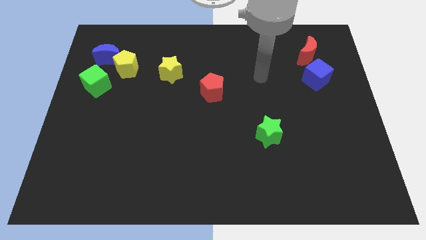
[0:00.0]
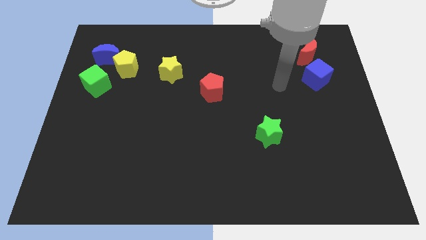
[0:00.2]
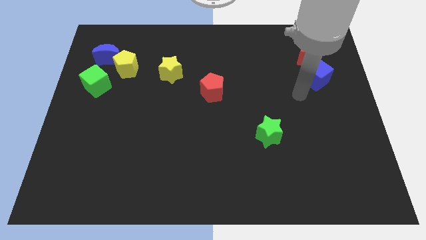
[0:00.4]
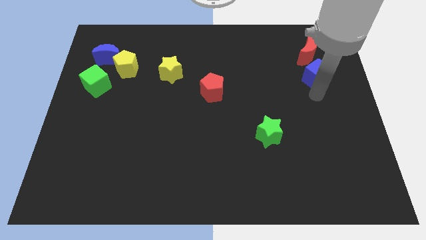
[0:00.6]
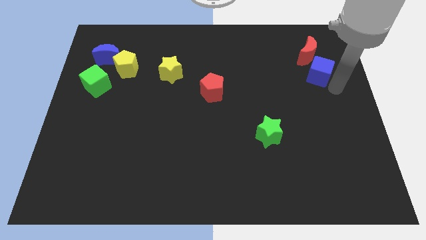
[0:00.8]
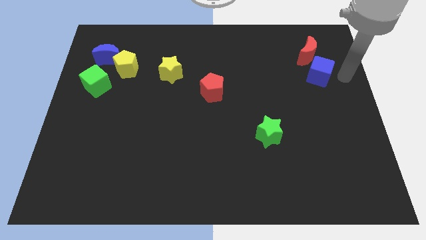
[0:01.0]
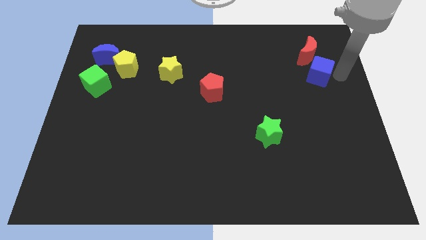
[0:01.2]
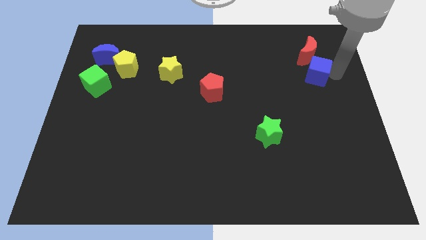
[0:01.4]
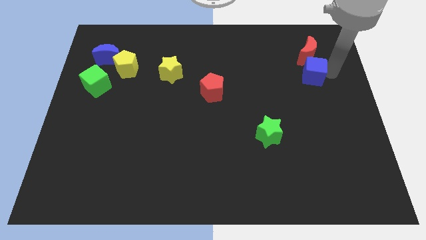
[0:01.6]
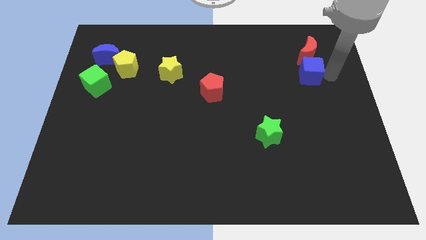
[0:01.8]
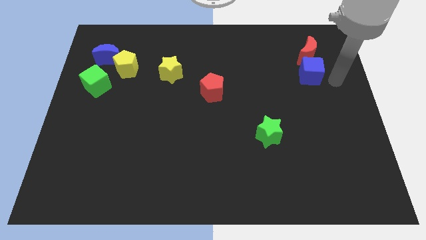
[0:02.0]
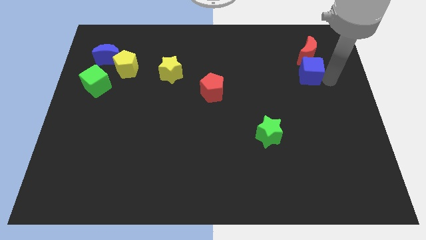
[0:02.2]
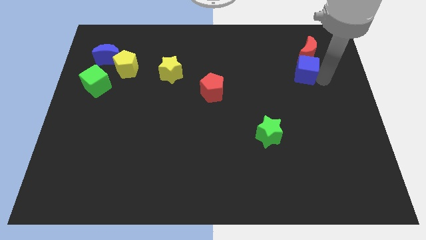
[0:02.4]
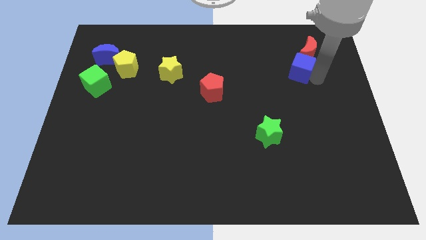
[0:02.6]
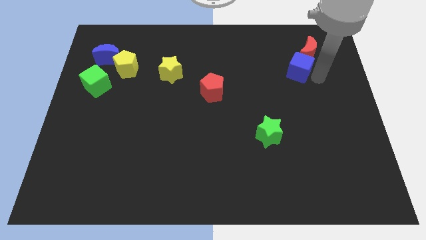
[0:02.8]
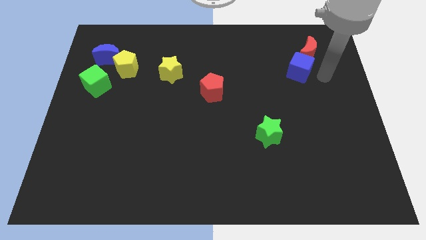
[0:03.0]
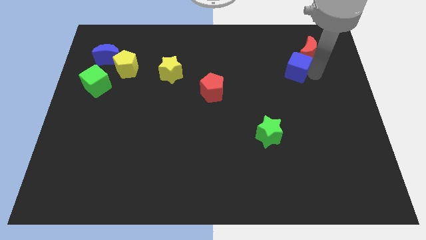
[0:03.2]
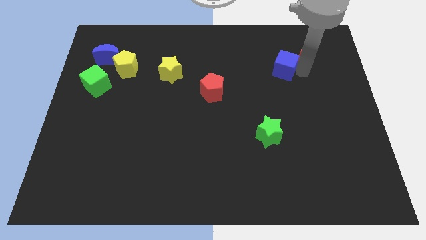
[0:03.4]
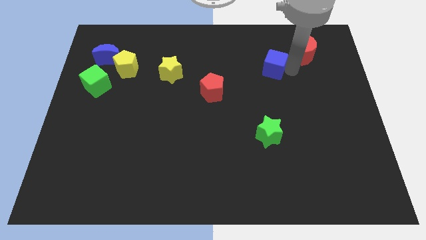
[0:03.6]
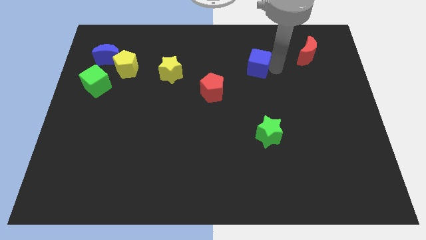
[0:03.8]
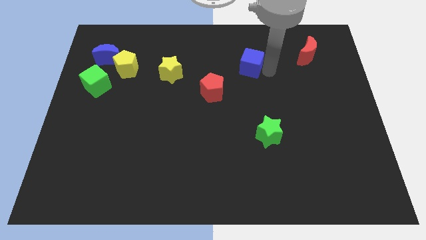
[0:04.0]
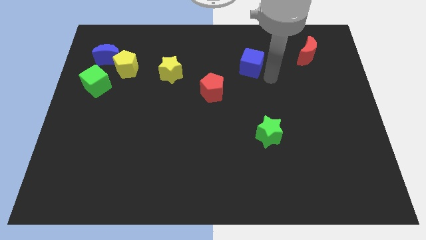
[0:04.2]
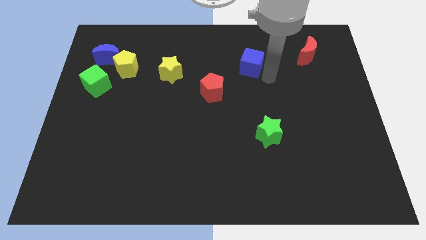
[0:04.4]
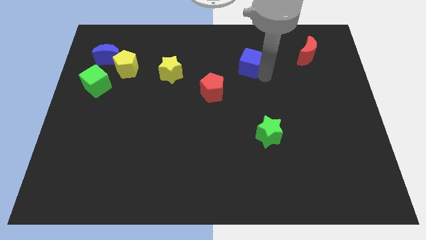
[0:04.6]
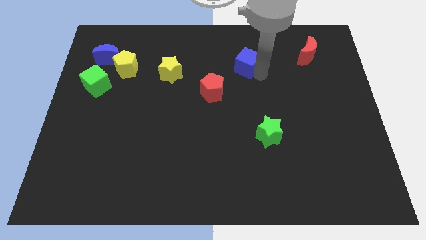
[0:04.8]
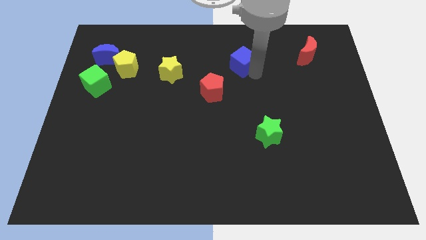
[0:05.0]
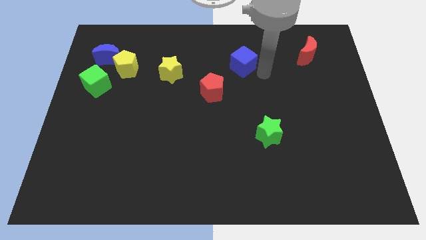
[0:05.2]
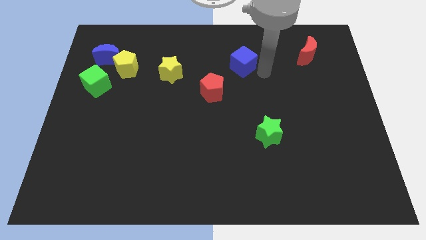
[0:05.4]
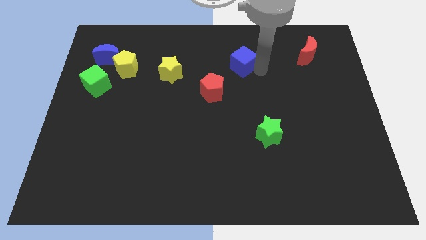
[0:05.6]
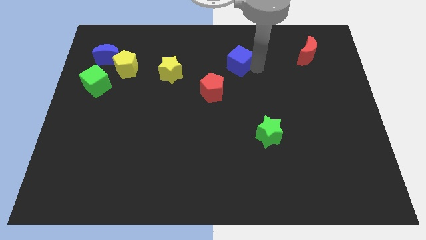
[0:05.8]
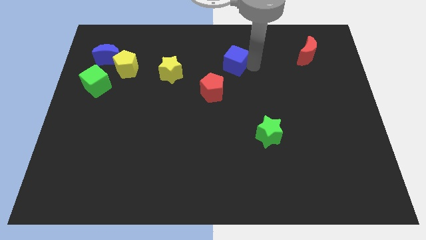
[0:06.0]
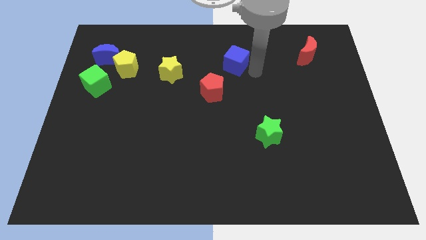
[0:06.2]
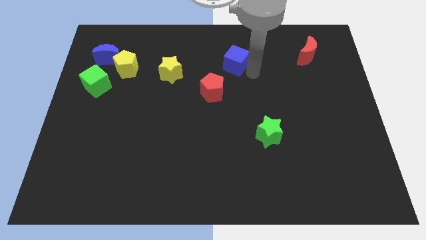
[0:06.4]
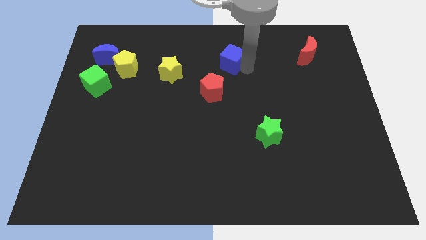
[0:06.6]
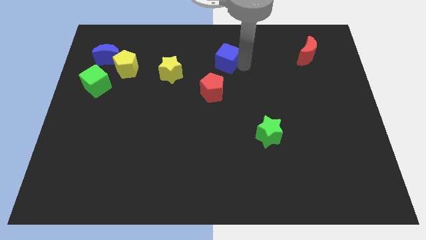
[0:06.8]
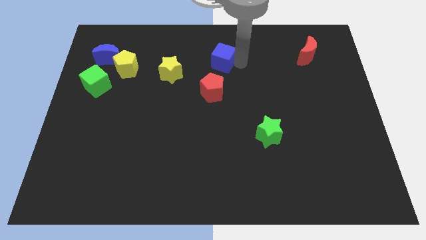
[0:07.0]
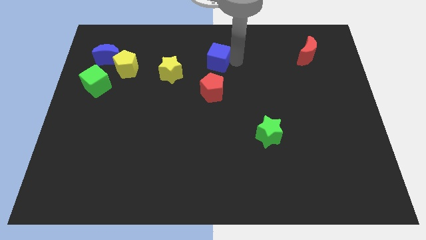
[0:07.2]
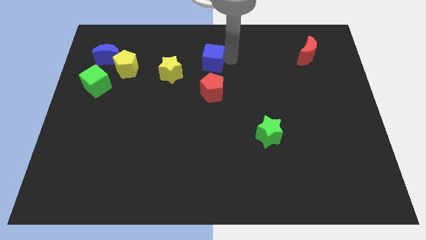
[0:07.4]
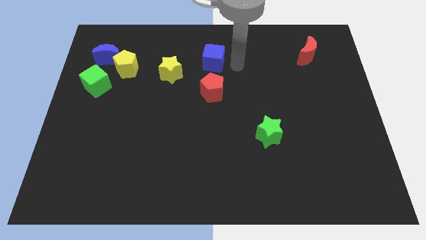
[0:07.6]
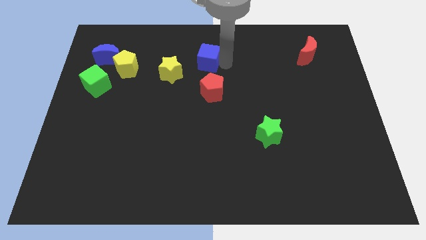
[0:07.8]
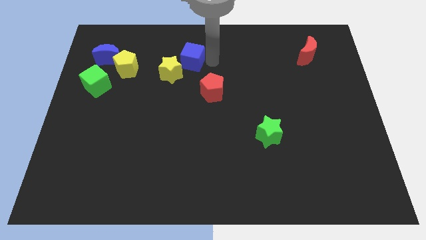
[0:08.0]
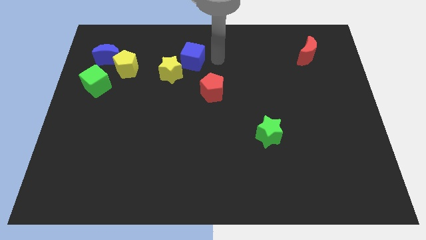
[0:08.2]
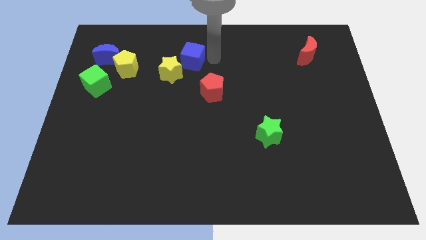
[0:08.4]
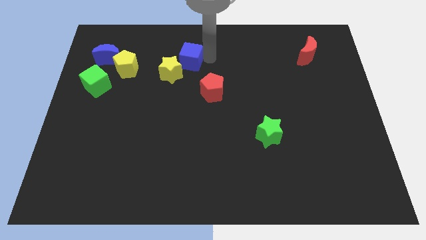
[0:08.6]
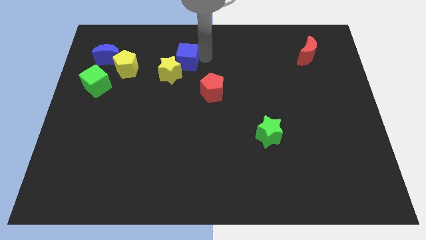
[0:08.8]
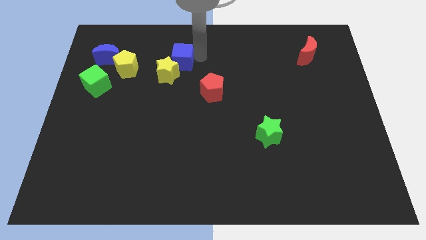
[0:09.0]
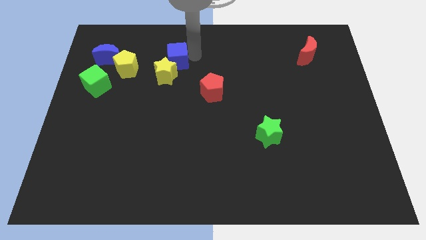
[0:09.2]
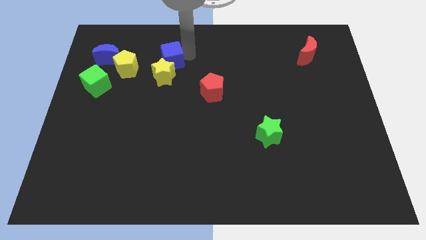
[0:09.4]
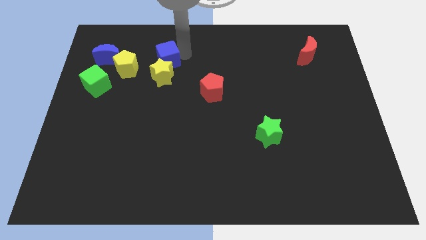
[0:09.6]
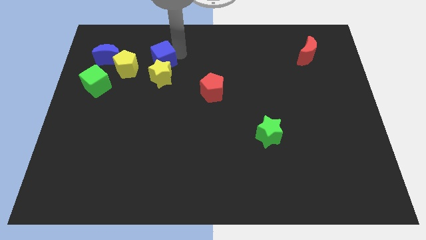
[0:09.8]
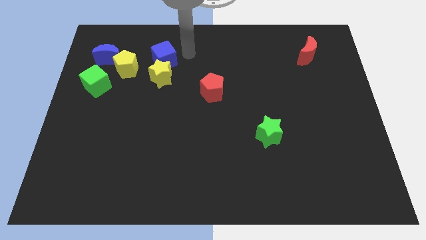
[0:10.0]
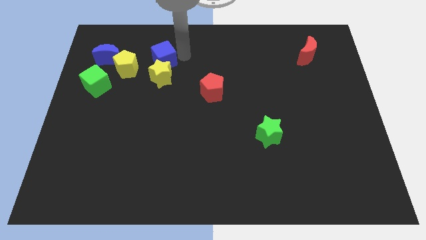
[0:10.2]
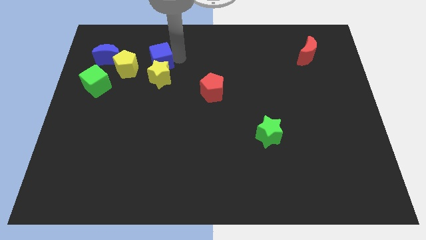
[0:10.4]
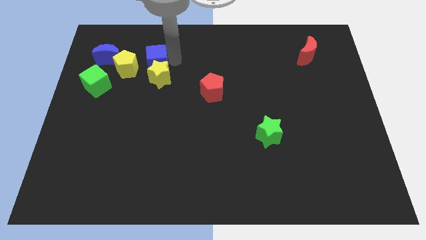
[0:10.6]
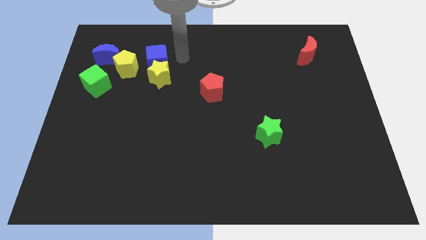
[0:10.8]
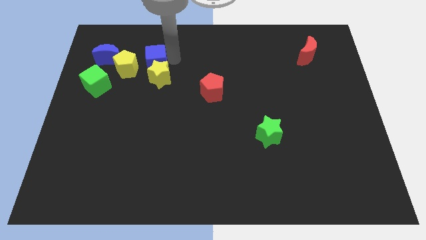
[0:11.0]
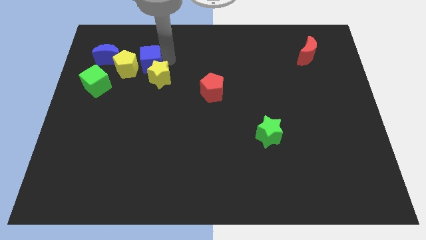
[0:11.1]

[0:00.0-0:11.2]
push the blue cube to the yellow pentagon

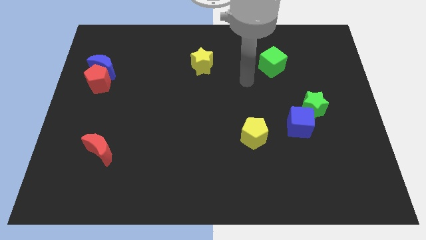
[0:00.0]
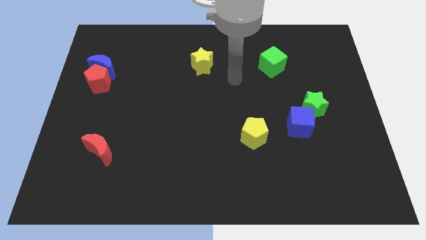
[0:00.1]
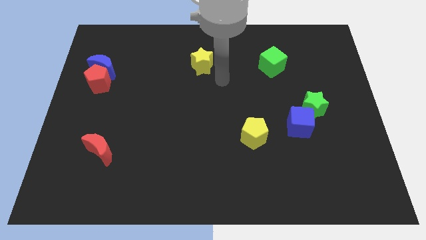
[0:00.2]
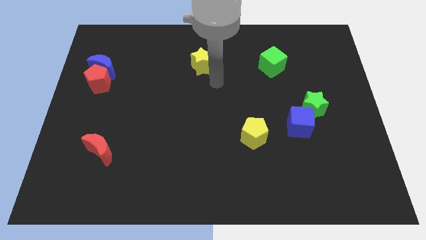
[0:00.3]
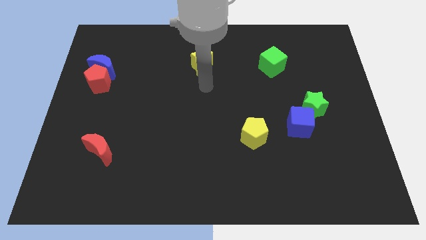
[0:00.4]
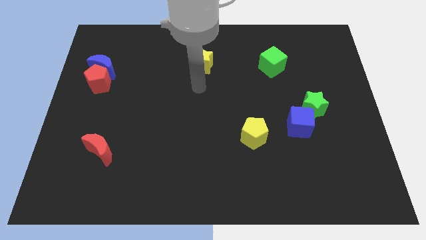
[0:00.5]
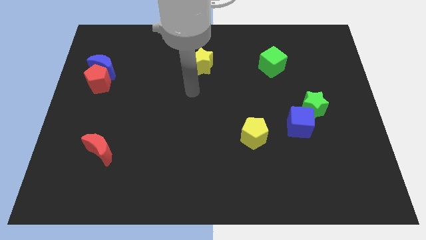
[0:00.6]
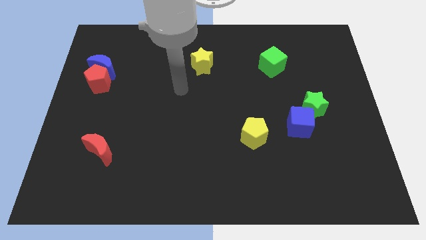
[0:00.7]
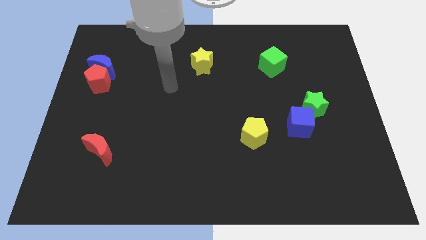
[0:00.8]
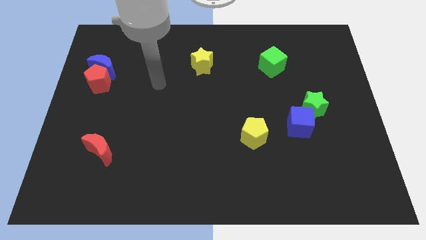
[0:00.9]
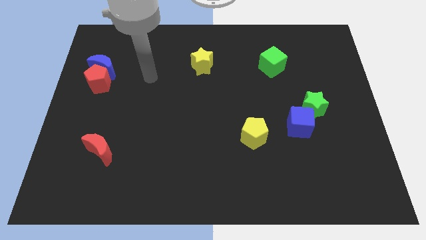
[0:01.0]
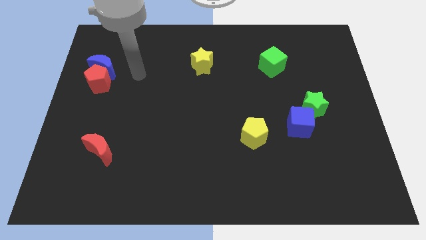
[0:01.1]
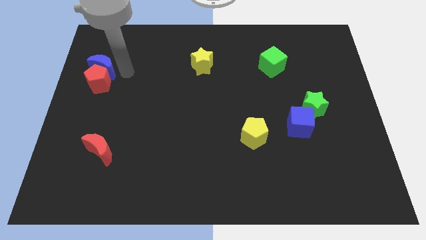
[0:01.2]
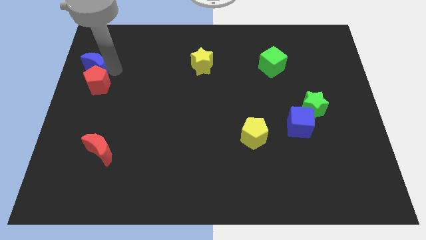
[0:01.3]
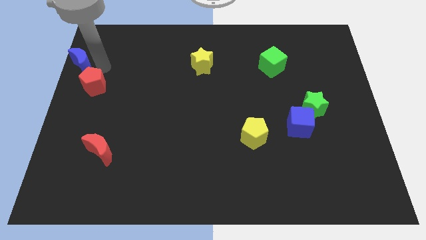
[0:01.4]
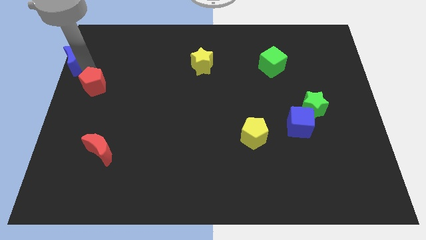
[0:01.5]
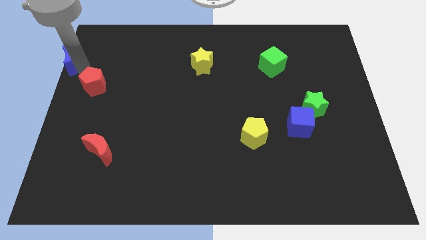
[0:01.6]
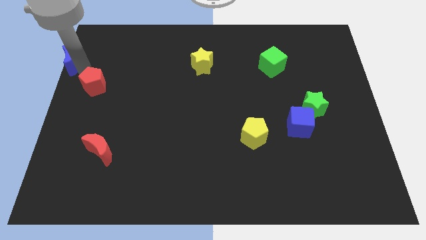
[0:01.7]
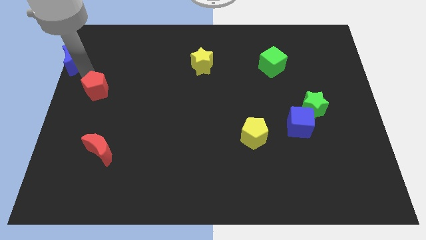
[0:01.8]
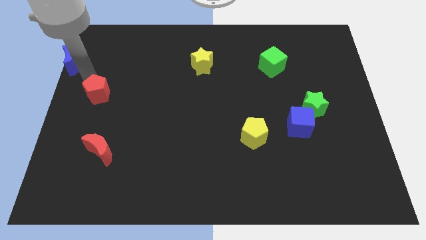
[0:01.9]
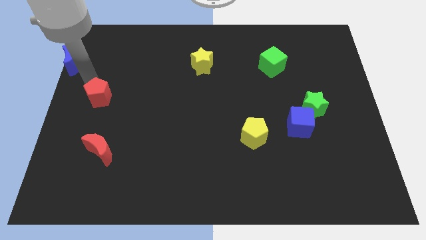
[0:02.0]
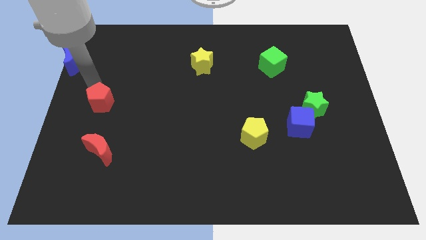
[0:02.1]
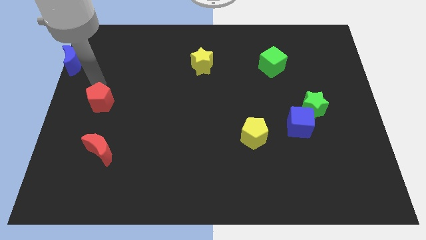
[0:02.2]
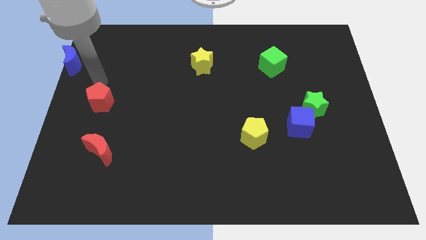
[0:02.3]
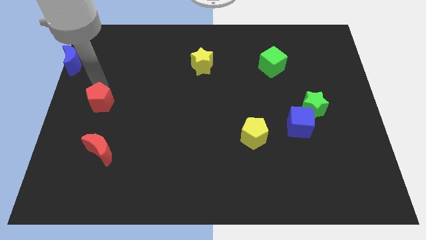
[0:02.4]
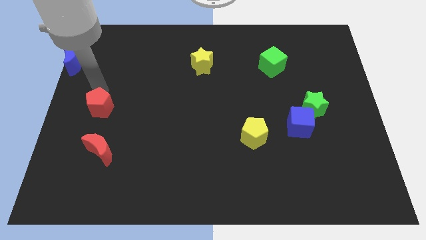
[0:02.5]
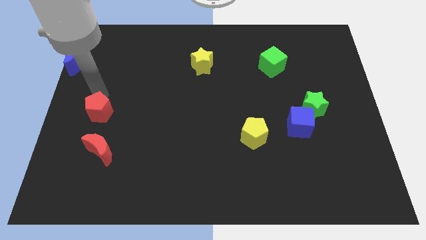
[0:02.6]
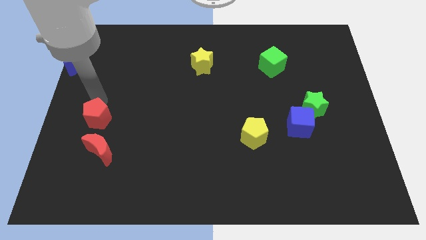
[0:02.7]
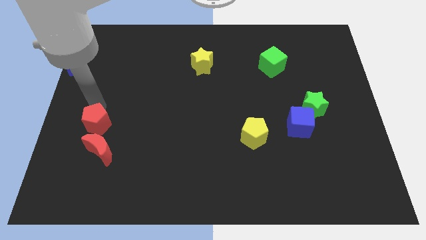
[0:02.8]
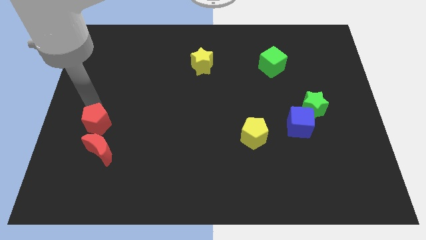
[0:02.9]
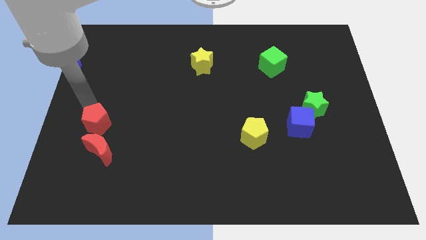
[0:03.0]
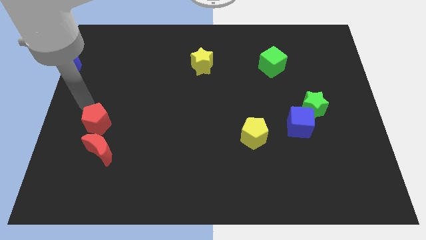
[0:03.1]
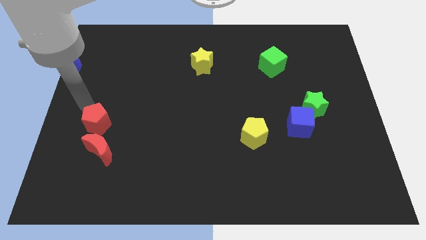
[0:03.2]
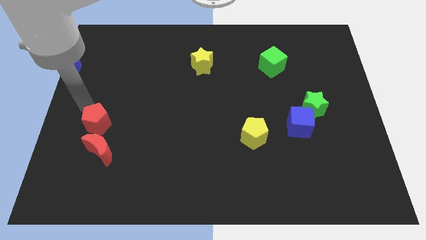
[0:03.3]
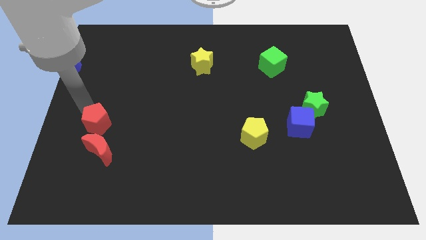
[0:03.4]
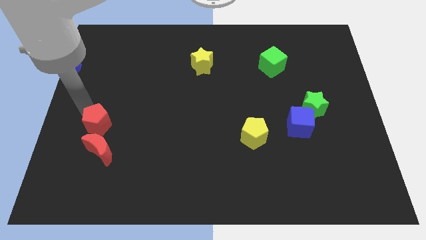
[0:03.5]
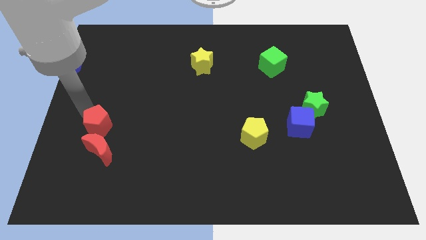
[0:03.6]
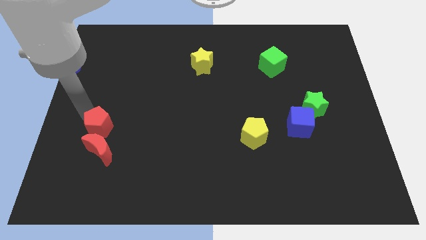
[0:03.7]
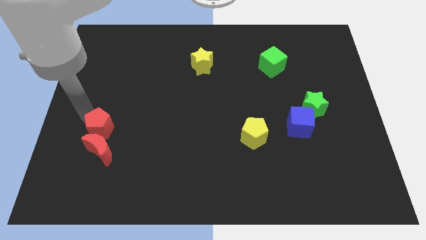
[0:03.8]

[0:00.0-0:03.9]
put the red pentagon to the red moon
